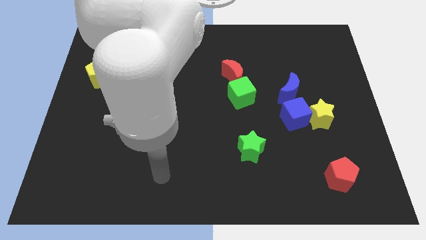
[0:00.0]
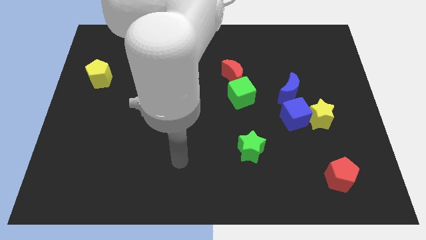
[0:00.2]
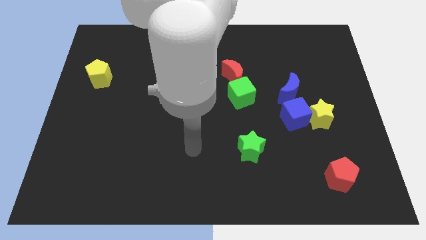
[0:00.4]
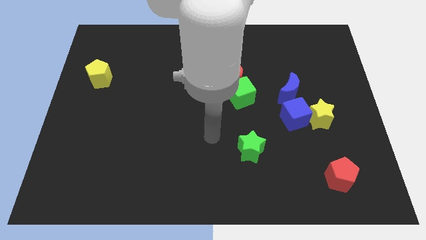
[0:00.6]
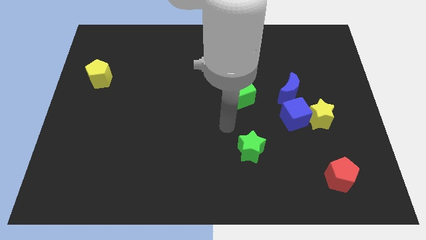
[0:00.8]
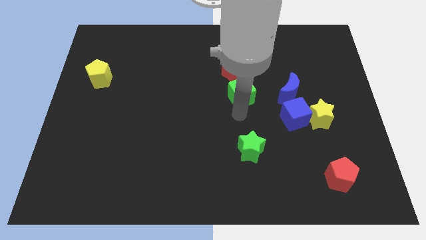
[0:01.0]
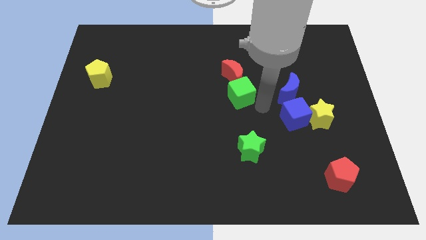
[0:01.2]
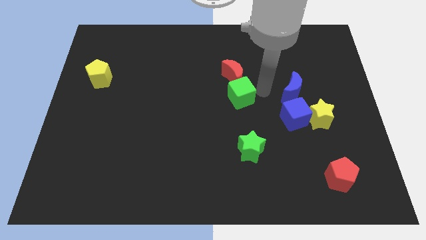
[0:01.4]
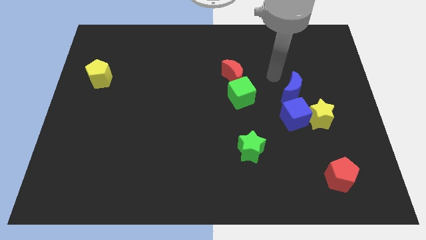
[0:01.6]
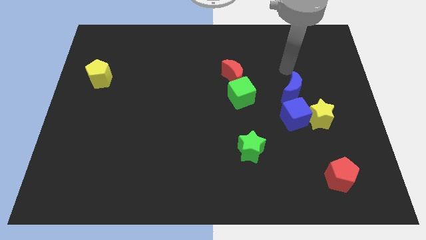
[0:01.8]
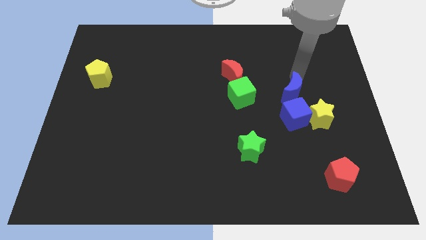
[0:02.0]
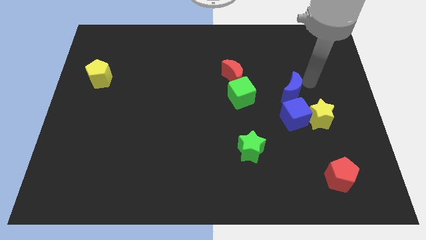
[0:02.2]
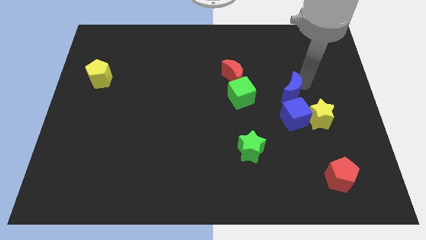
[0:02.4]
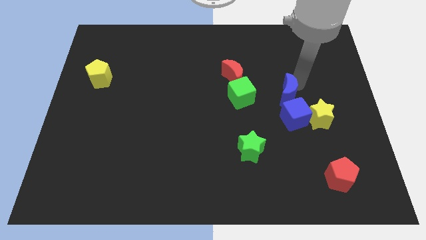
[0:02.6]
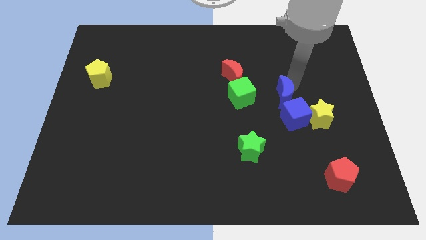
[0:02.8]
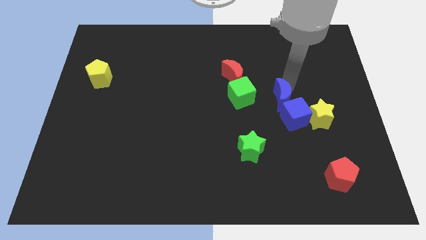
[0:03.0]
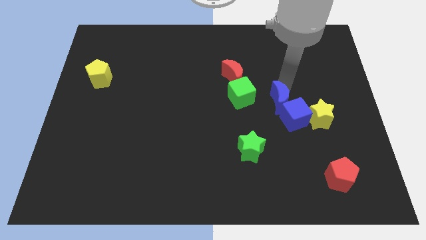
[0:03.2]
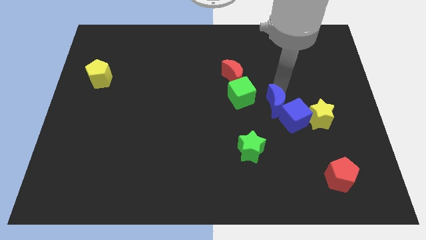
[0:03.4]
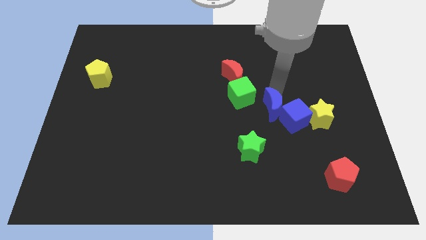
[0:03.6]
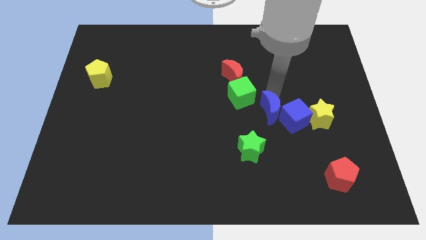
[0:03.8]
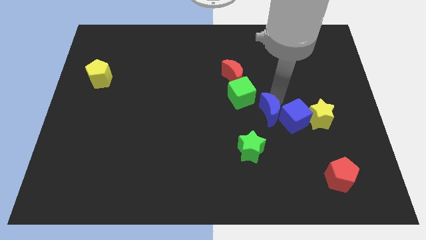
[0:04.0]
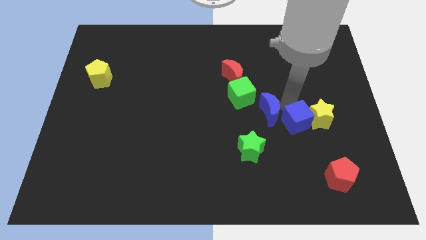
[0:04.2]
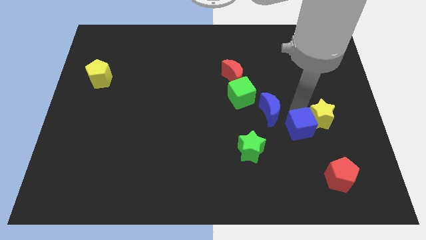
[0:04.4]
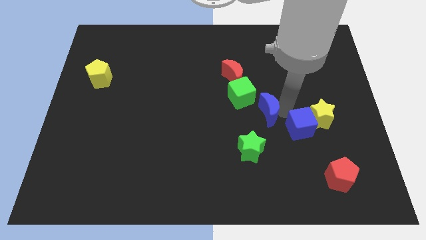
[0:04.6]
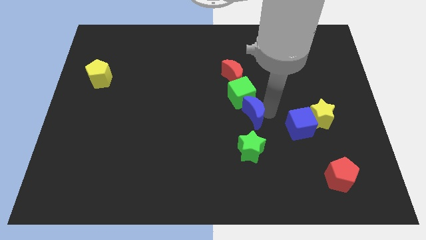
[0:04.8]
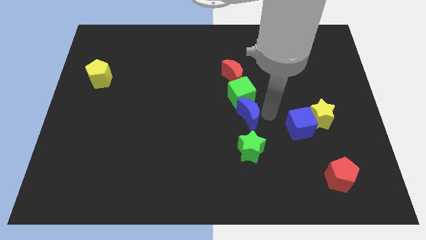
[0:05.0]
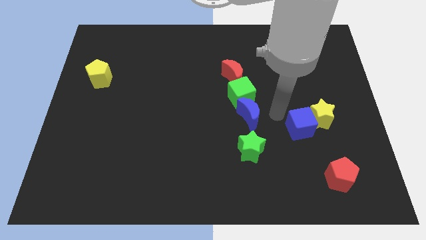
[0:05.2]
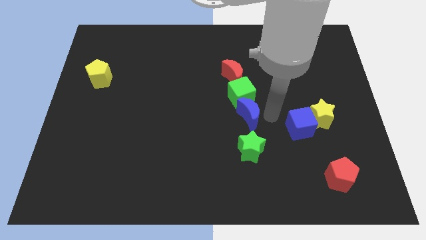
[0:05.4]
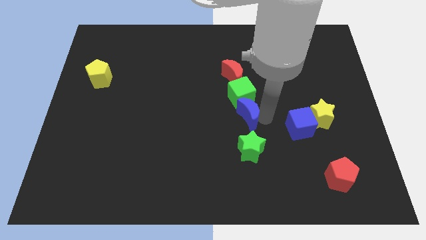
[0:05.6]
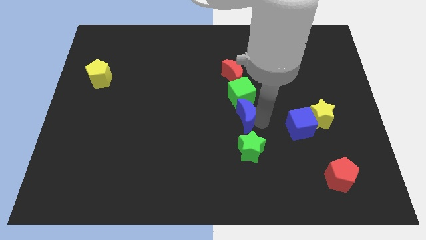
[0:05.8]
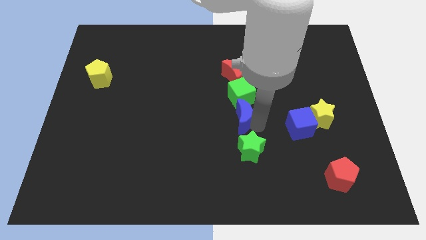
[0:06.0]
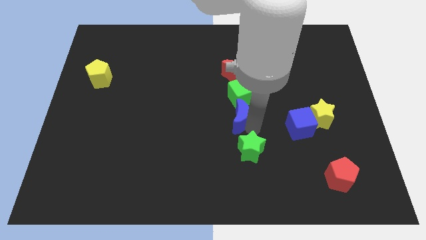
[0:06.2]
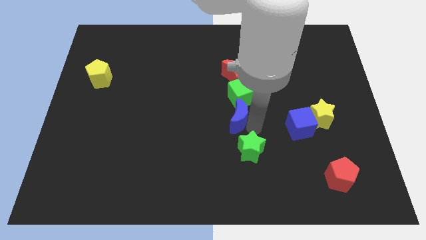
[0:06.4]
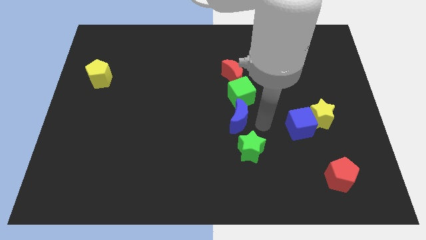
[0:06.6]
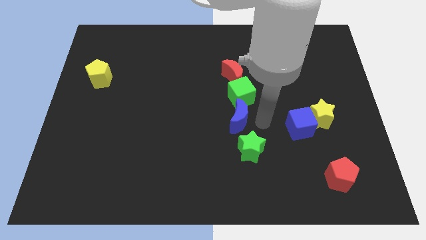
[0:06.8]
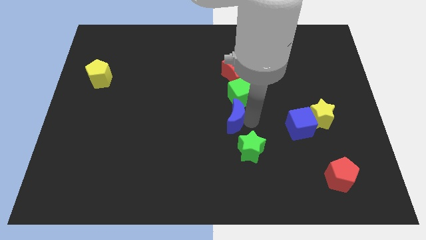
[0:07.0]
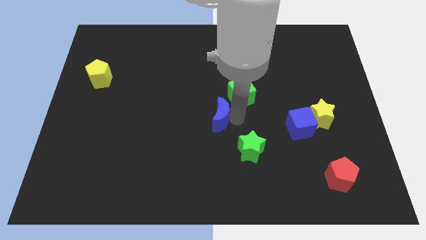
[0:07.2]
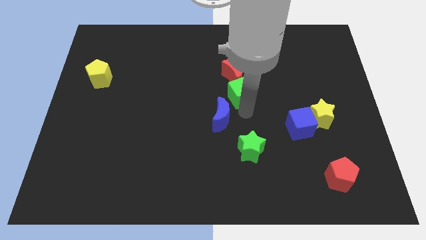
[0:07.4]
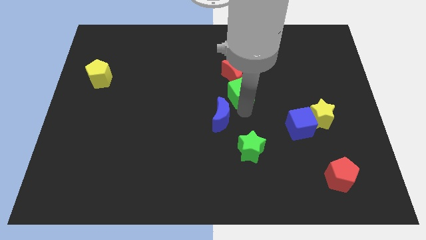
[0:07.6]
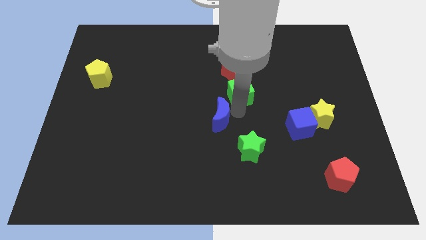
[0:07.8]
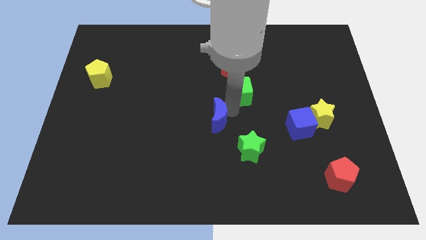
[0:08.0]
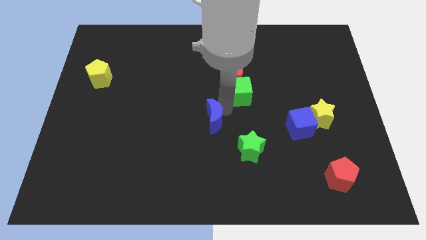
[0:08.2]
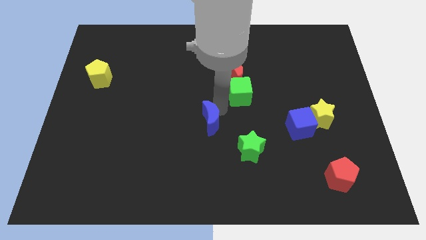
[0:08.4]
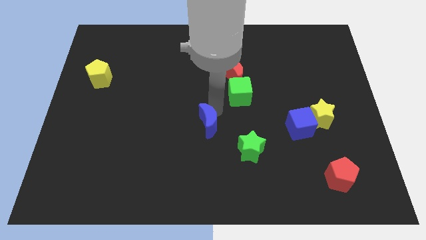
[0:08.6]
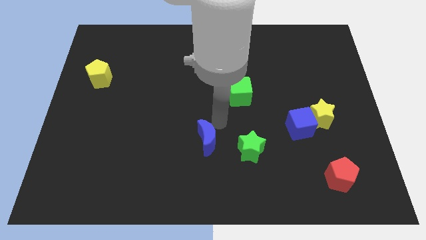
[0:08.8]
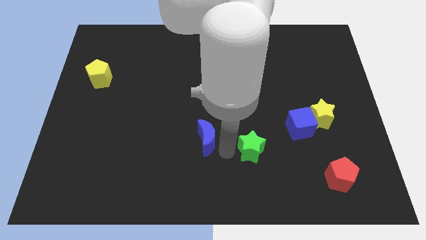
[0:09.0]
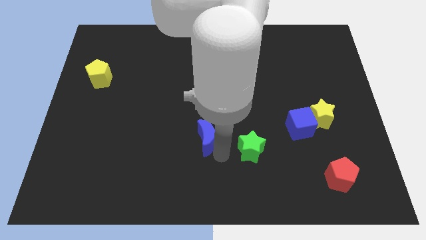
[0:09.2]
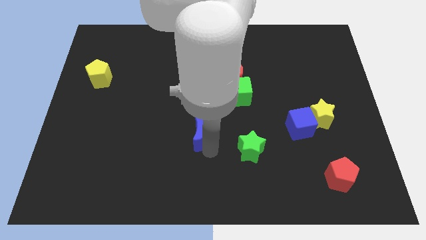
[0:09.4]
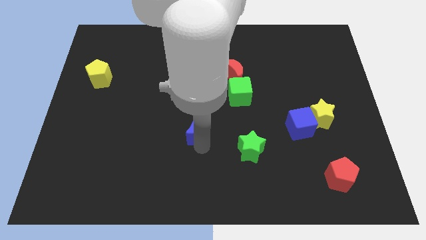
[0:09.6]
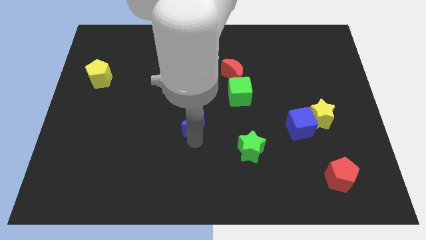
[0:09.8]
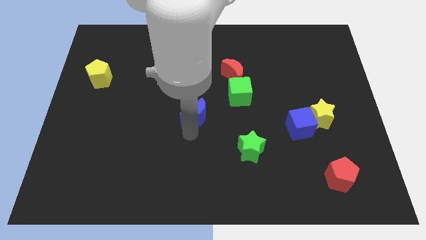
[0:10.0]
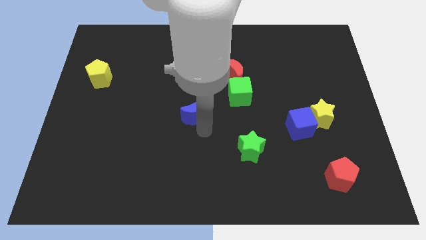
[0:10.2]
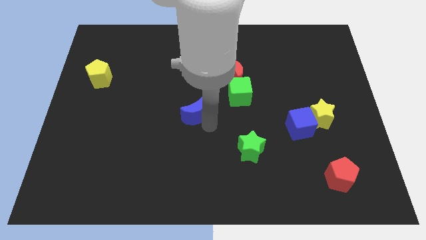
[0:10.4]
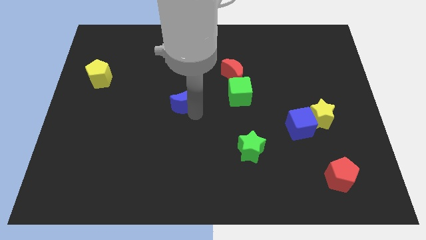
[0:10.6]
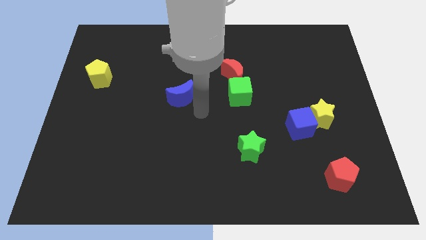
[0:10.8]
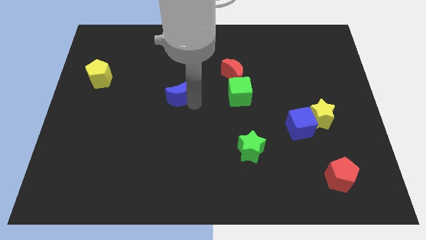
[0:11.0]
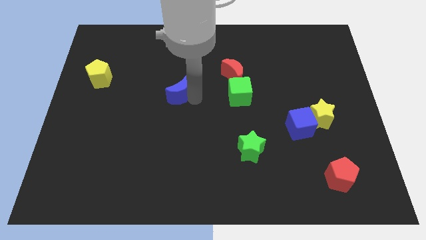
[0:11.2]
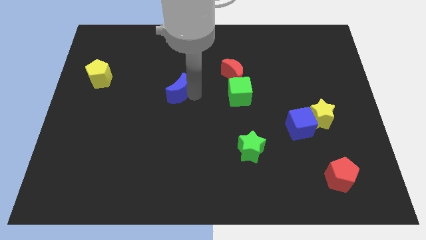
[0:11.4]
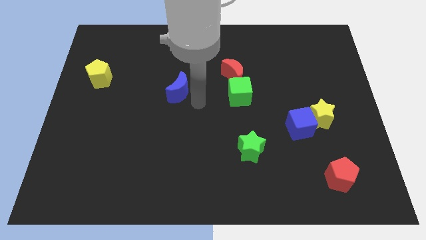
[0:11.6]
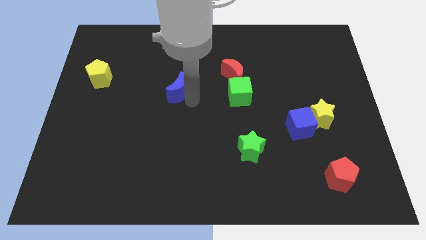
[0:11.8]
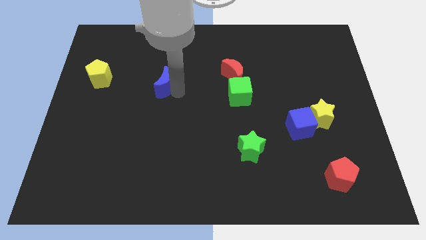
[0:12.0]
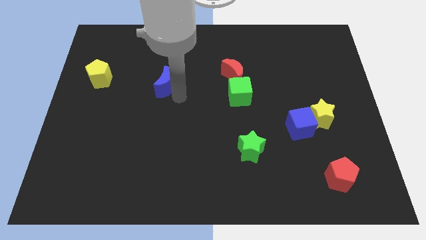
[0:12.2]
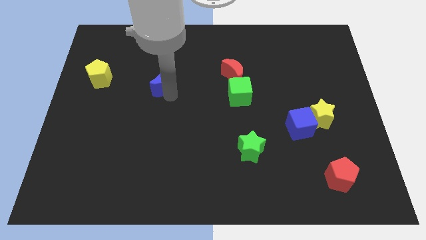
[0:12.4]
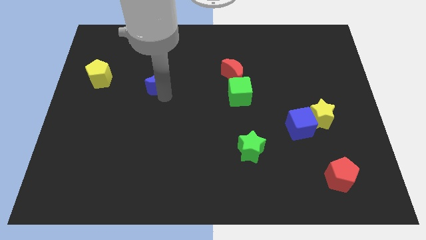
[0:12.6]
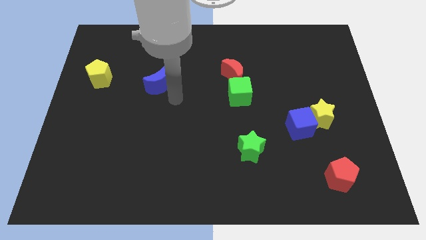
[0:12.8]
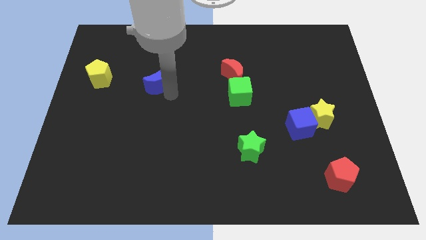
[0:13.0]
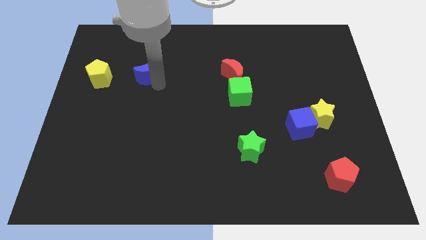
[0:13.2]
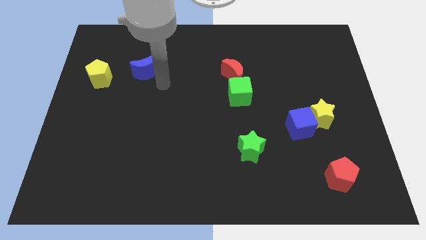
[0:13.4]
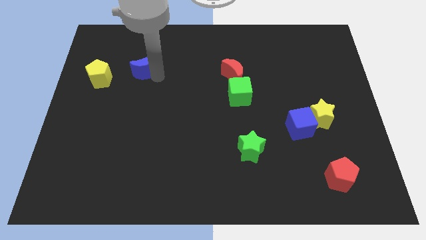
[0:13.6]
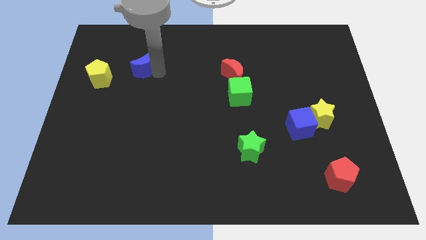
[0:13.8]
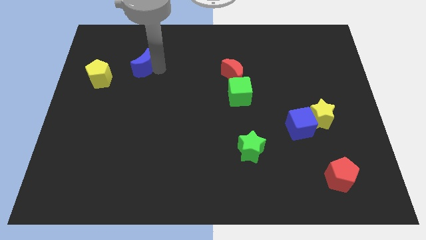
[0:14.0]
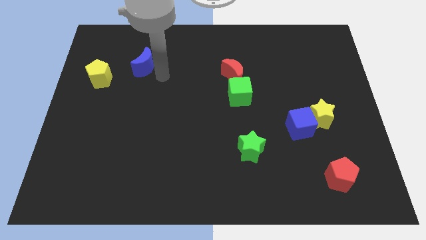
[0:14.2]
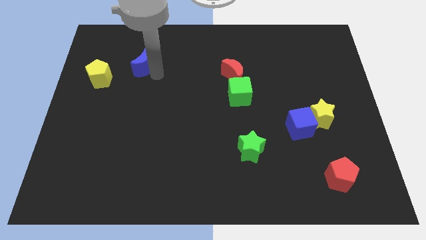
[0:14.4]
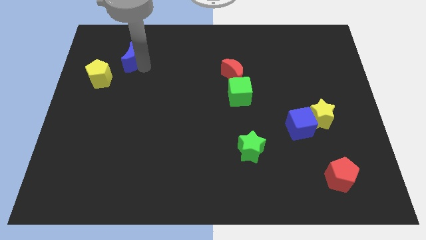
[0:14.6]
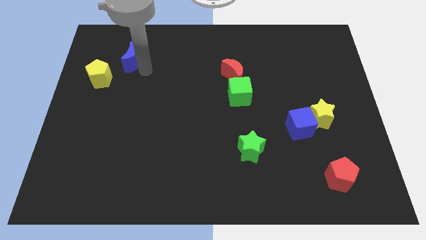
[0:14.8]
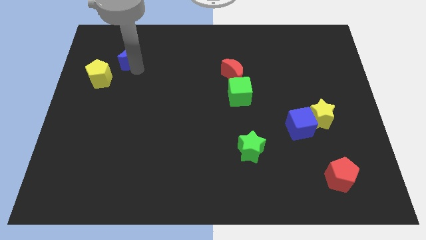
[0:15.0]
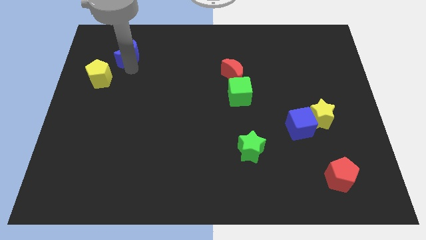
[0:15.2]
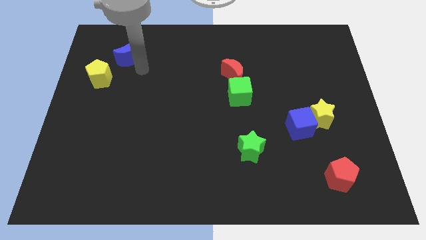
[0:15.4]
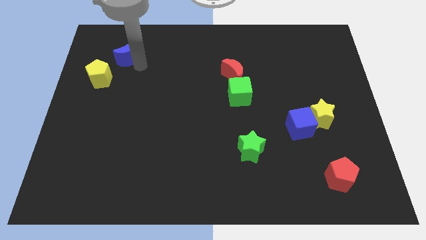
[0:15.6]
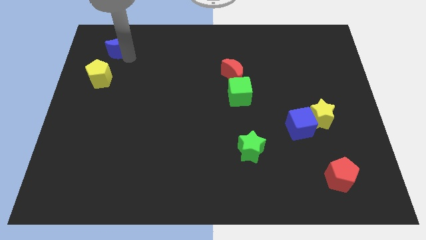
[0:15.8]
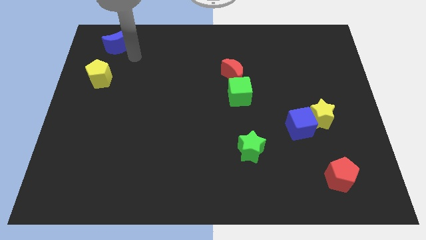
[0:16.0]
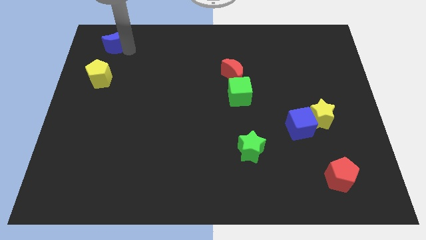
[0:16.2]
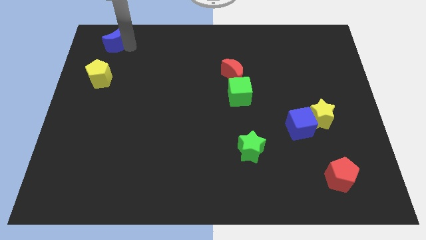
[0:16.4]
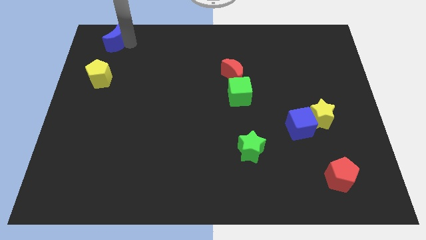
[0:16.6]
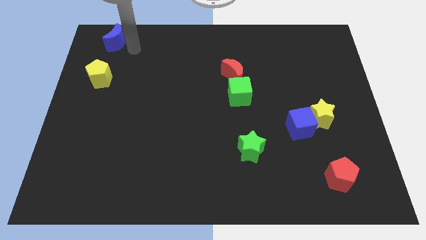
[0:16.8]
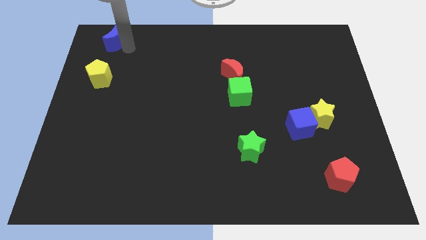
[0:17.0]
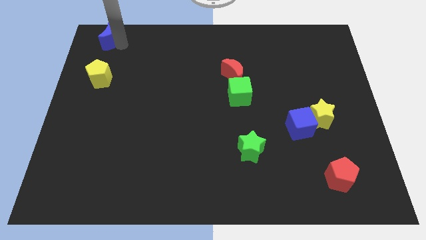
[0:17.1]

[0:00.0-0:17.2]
put the blue moon to the top left
